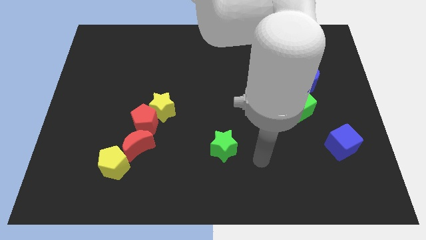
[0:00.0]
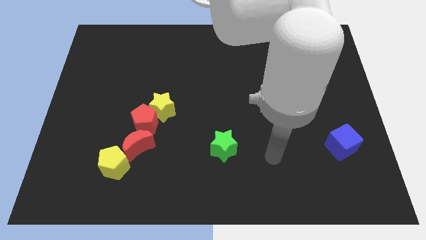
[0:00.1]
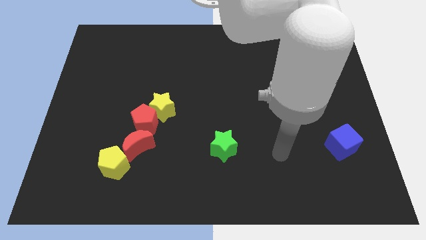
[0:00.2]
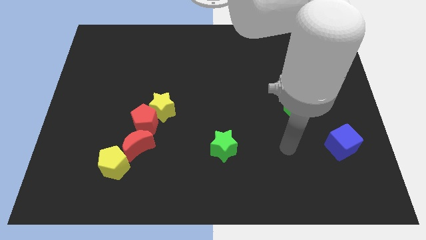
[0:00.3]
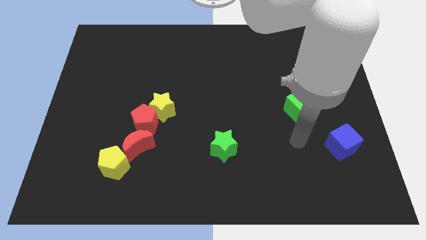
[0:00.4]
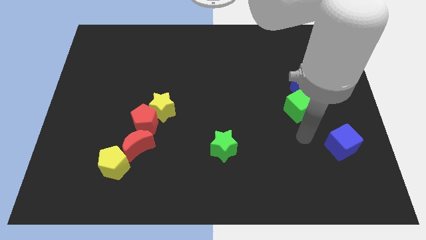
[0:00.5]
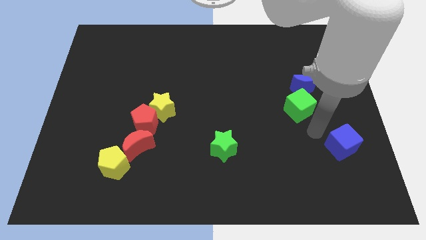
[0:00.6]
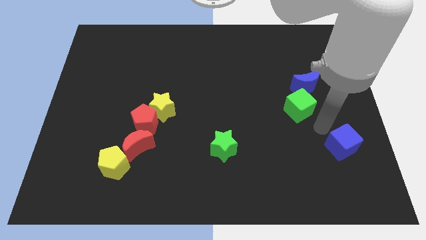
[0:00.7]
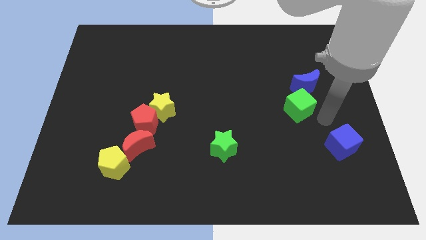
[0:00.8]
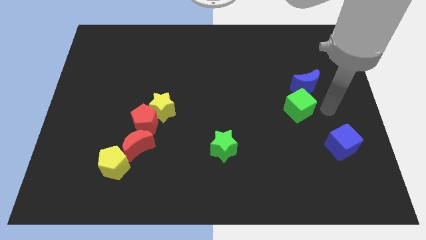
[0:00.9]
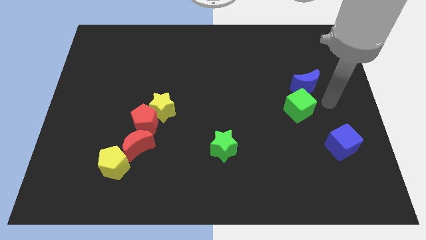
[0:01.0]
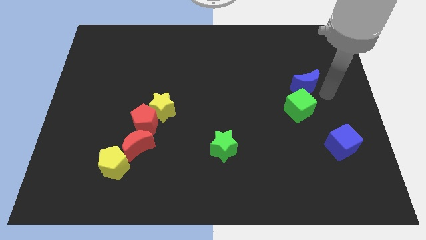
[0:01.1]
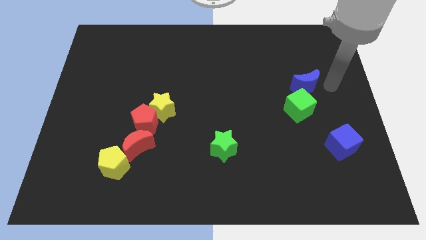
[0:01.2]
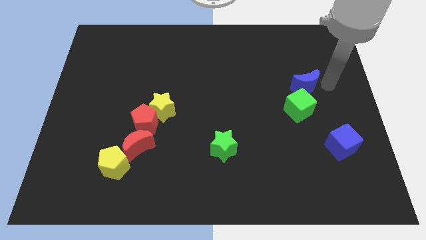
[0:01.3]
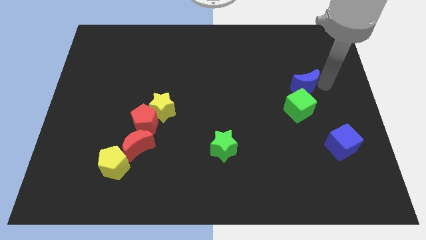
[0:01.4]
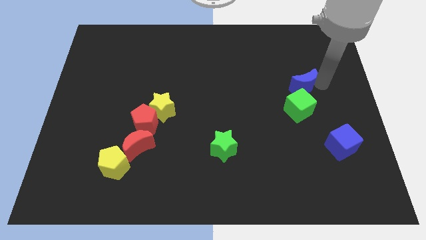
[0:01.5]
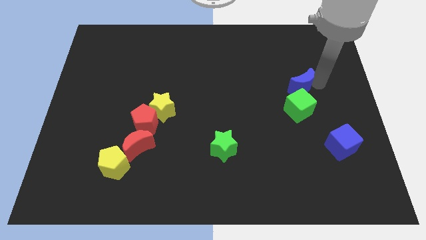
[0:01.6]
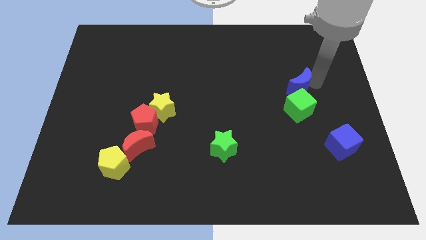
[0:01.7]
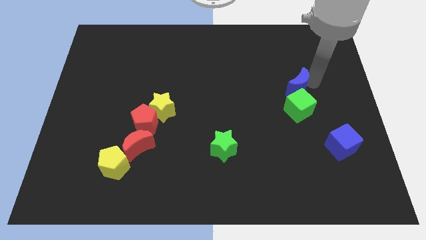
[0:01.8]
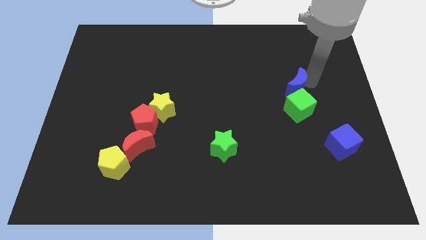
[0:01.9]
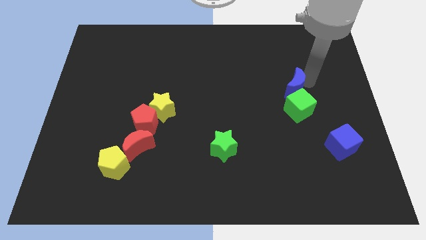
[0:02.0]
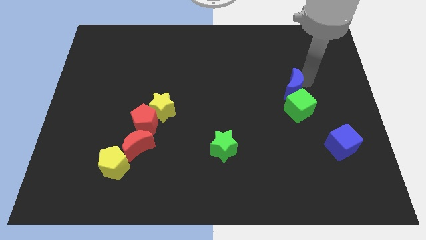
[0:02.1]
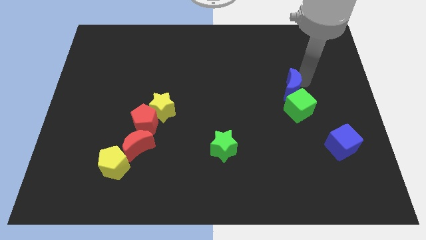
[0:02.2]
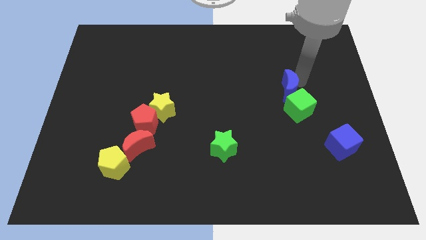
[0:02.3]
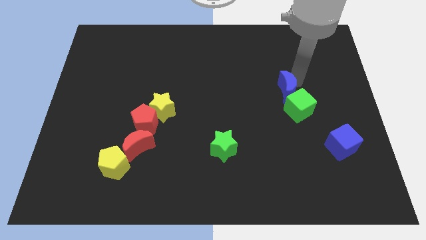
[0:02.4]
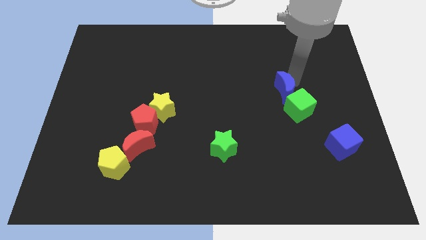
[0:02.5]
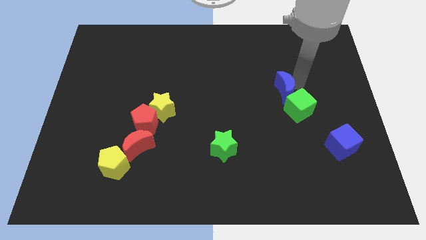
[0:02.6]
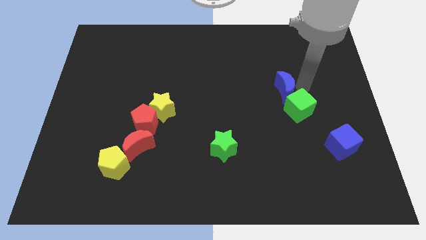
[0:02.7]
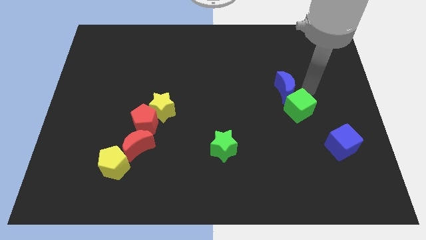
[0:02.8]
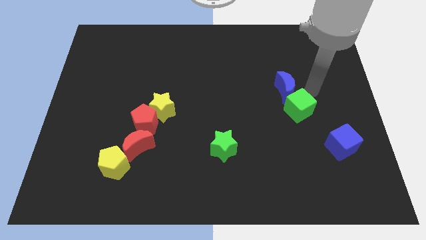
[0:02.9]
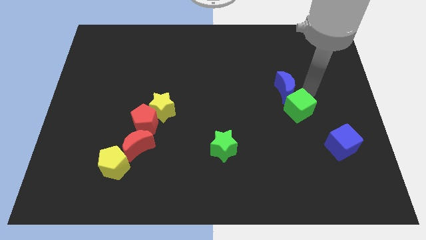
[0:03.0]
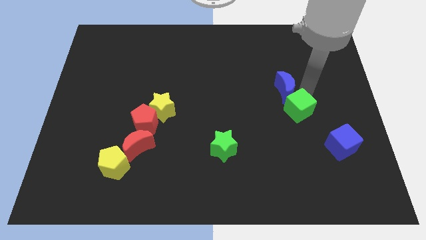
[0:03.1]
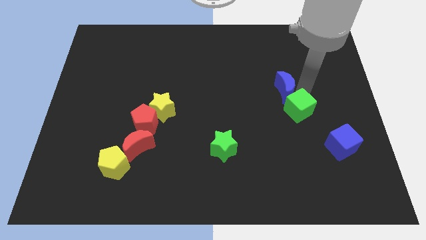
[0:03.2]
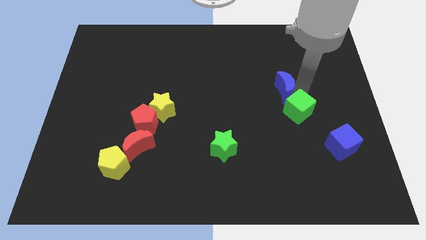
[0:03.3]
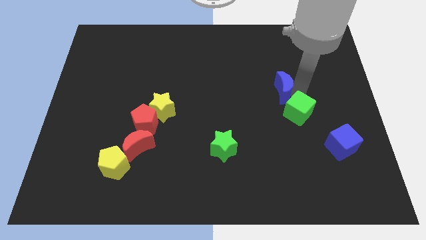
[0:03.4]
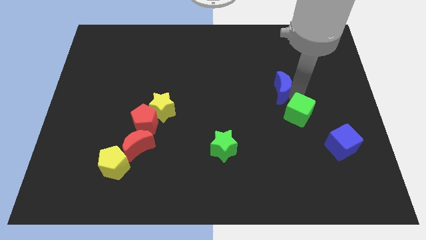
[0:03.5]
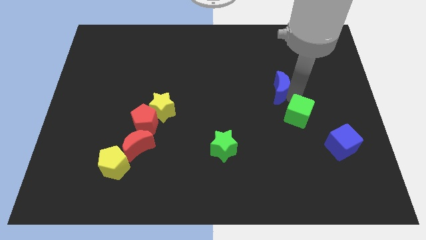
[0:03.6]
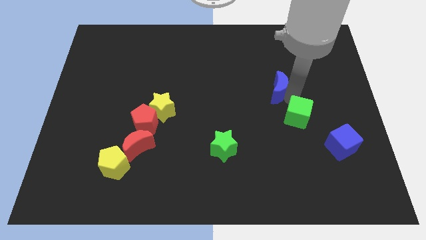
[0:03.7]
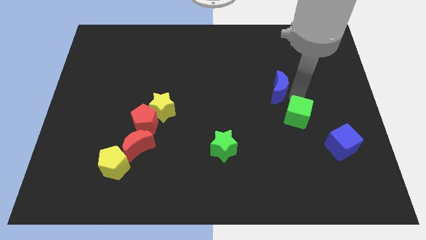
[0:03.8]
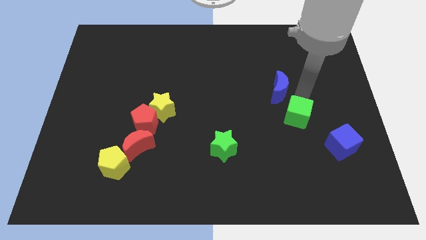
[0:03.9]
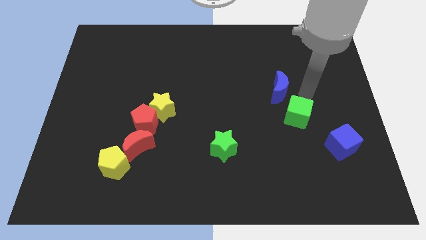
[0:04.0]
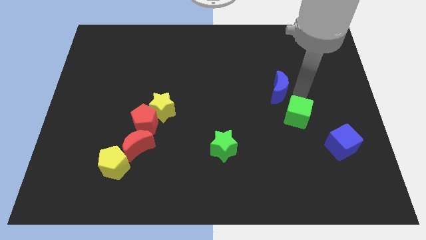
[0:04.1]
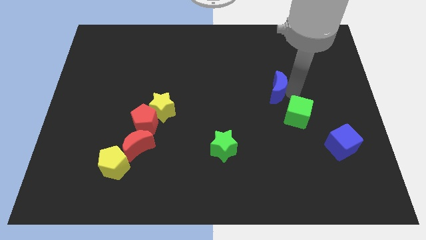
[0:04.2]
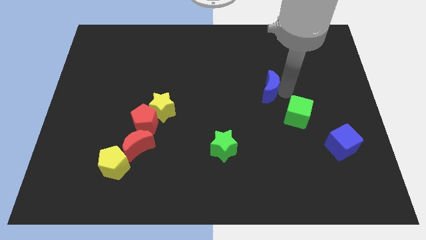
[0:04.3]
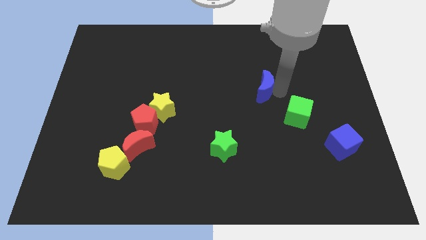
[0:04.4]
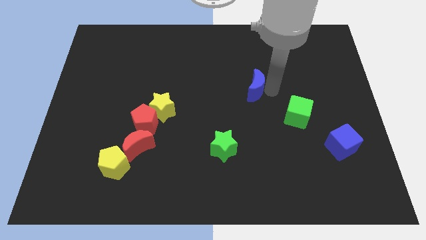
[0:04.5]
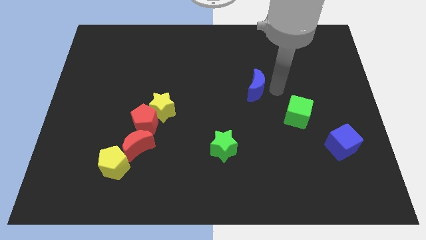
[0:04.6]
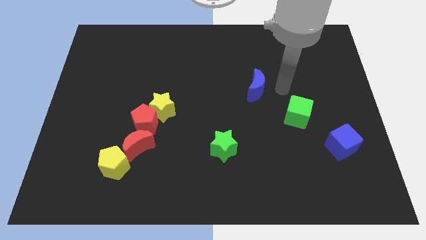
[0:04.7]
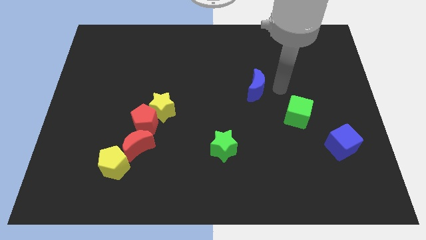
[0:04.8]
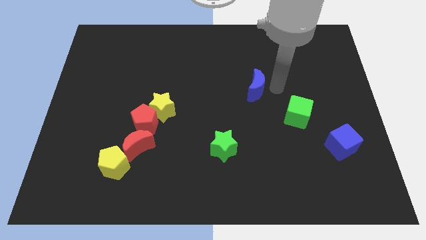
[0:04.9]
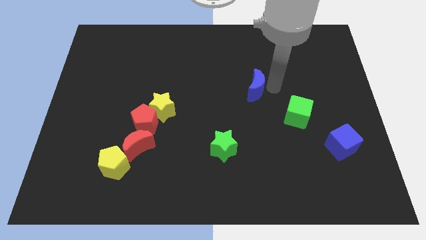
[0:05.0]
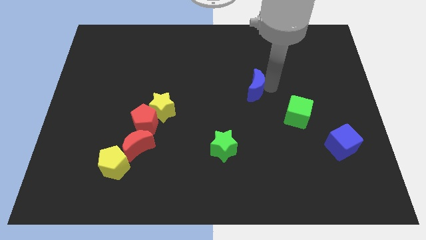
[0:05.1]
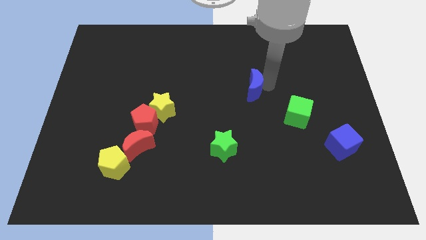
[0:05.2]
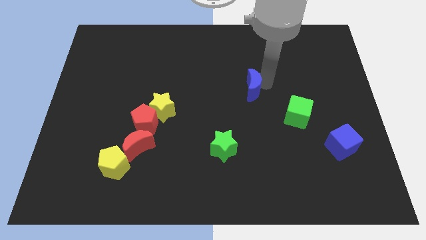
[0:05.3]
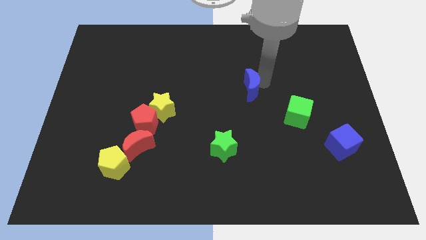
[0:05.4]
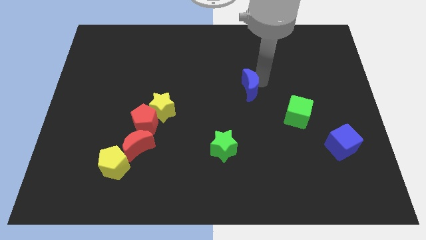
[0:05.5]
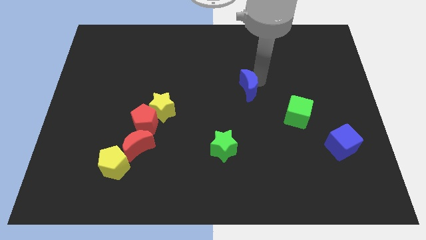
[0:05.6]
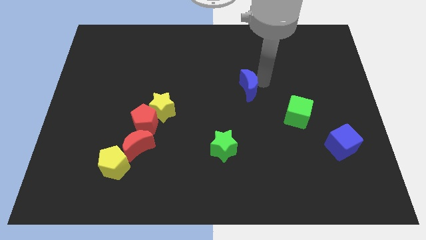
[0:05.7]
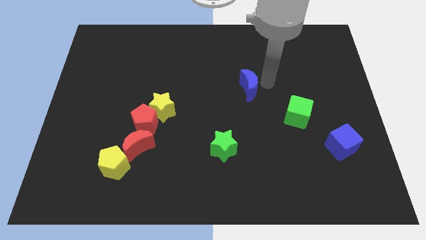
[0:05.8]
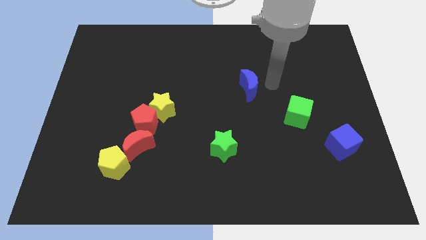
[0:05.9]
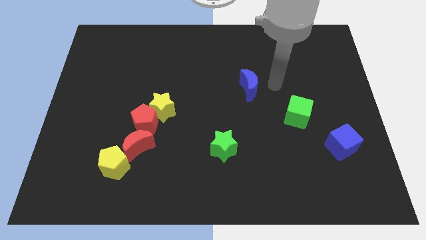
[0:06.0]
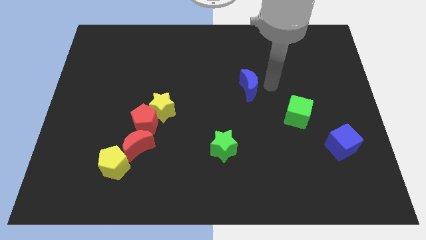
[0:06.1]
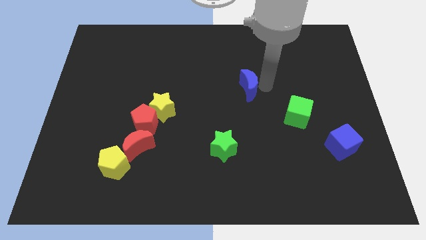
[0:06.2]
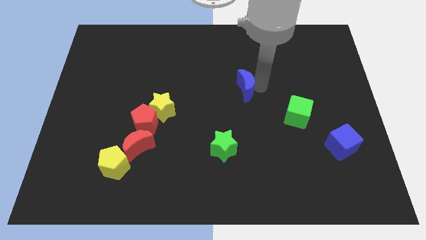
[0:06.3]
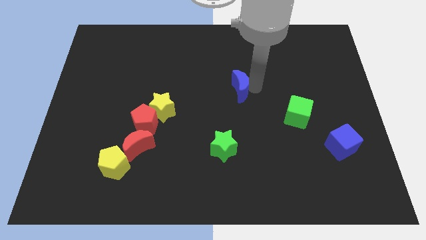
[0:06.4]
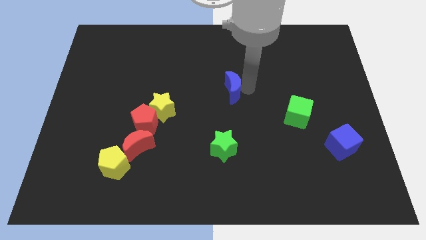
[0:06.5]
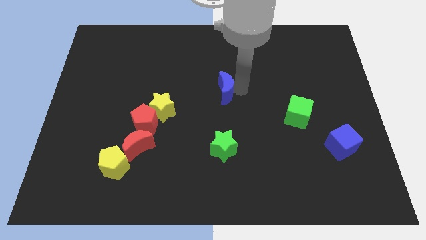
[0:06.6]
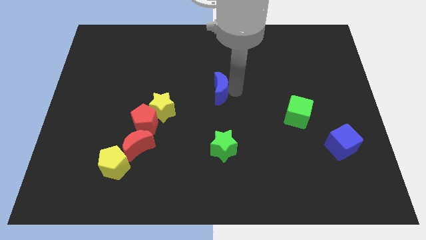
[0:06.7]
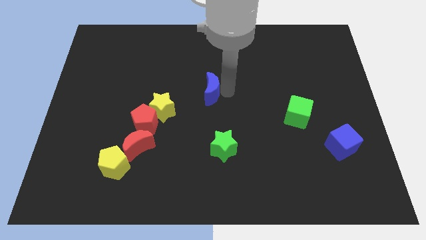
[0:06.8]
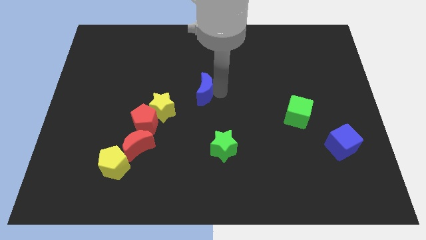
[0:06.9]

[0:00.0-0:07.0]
put the blue moon to the top right side of the yellow star
